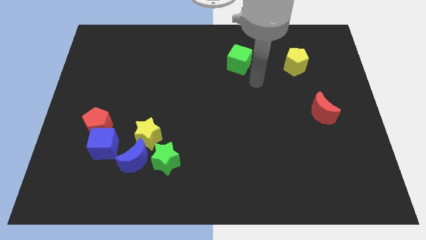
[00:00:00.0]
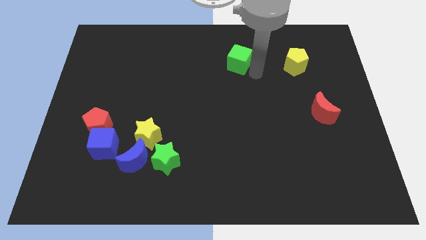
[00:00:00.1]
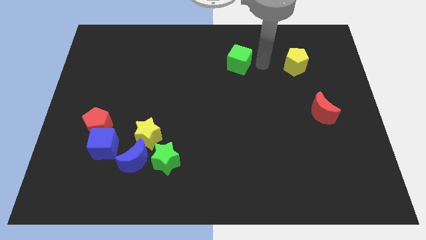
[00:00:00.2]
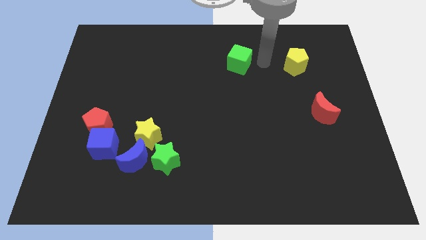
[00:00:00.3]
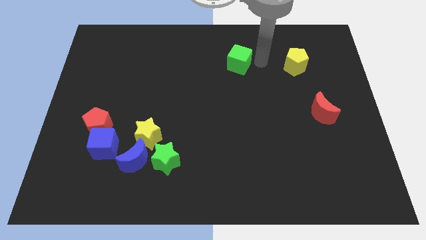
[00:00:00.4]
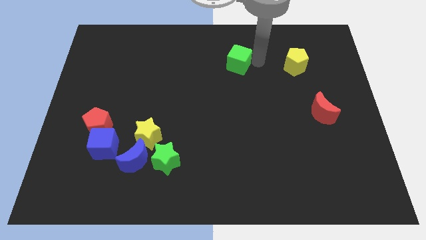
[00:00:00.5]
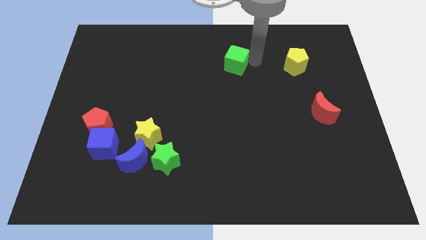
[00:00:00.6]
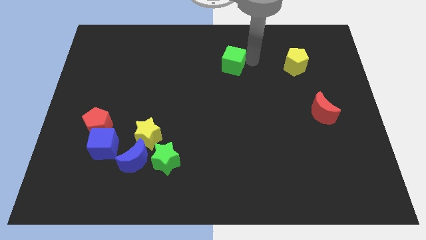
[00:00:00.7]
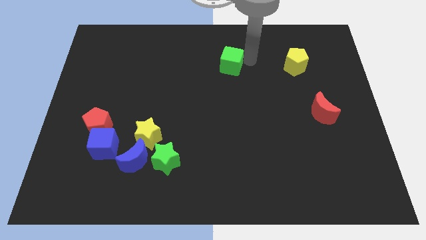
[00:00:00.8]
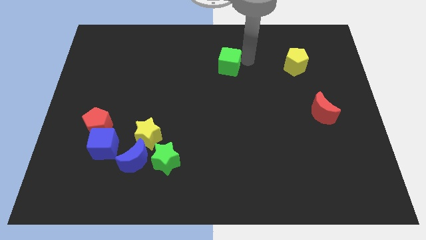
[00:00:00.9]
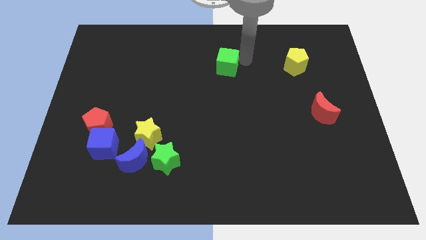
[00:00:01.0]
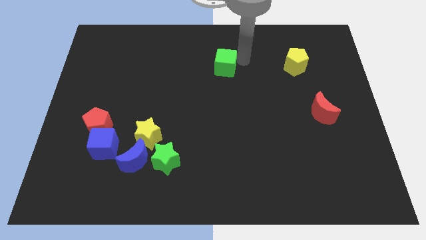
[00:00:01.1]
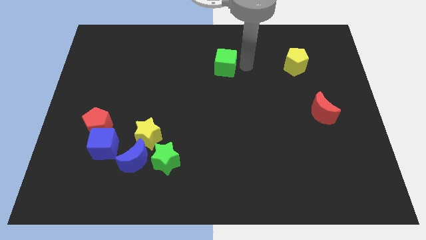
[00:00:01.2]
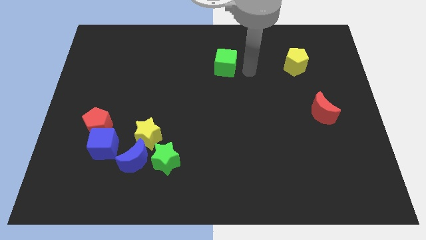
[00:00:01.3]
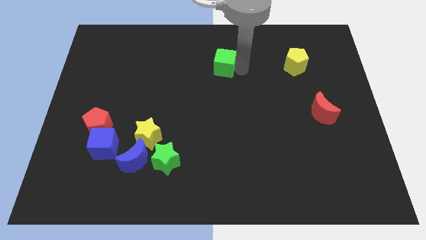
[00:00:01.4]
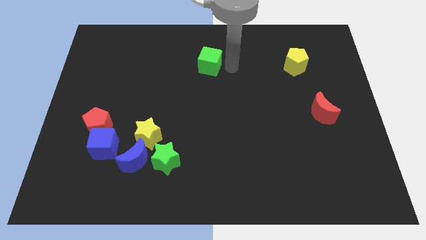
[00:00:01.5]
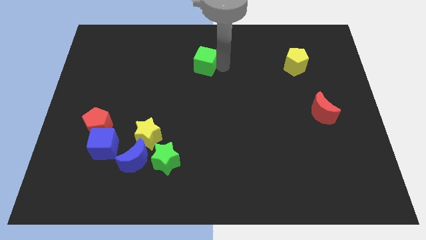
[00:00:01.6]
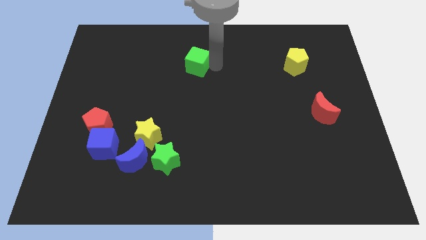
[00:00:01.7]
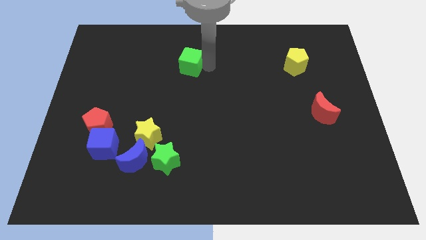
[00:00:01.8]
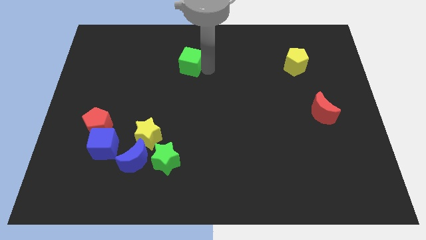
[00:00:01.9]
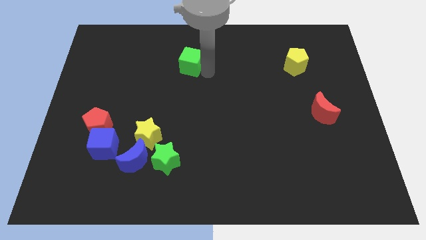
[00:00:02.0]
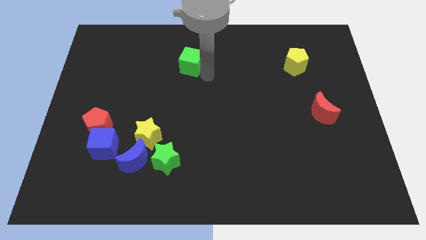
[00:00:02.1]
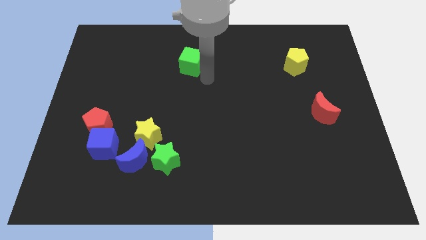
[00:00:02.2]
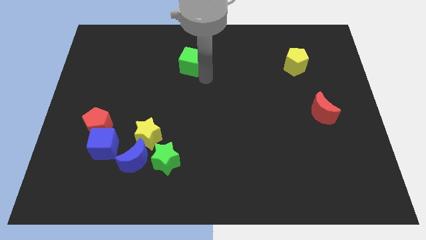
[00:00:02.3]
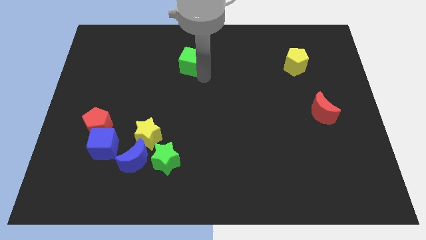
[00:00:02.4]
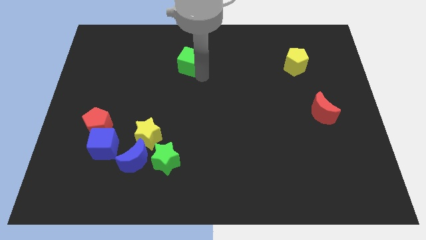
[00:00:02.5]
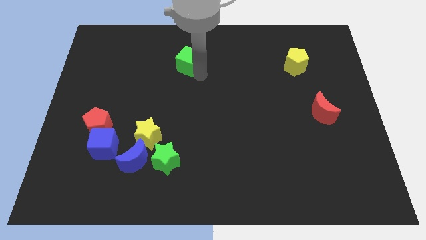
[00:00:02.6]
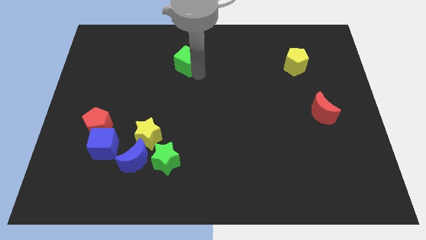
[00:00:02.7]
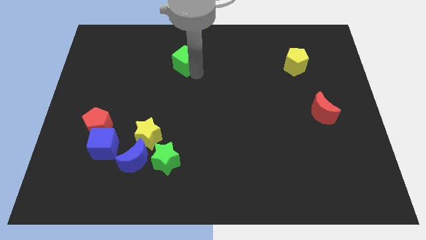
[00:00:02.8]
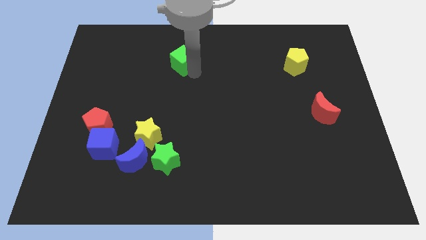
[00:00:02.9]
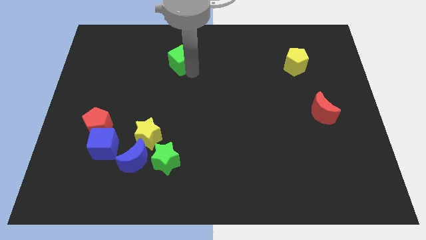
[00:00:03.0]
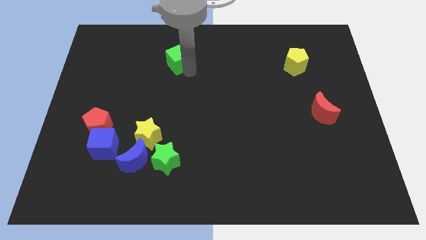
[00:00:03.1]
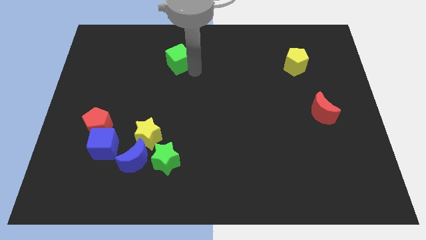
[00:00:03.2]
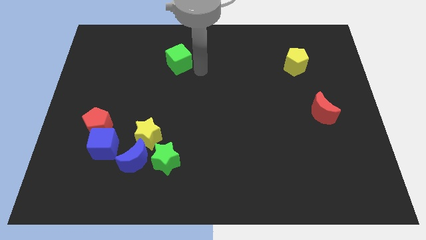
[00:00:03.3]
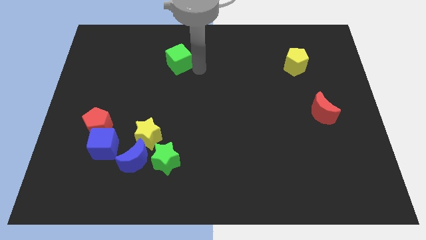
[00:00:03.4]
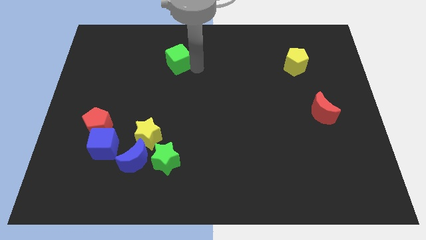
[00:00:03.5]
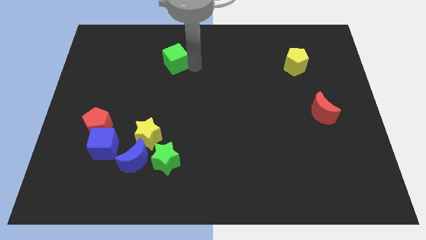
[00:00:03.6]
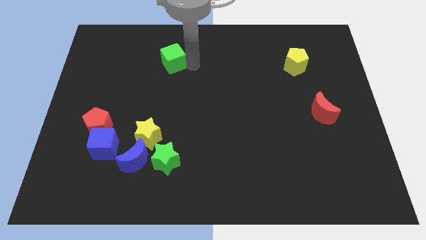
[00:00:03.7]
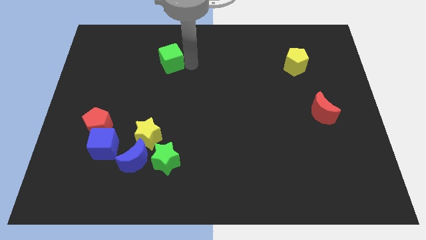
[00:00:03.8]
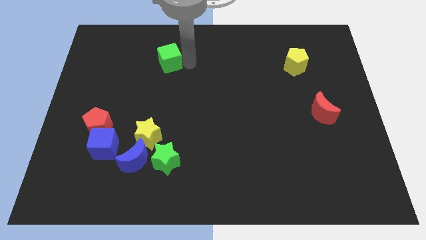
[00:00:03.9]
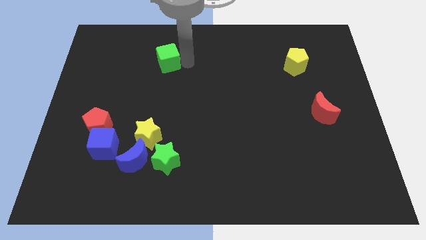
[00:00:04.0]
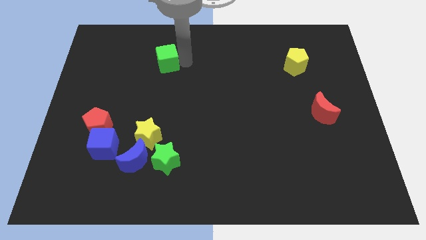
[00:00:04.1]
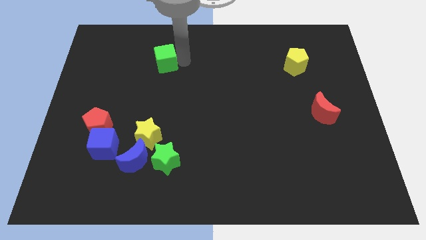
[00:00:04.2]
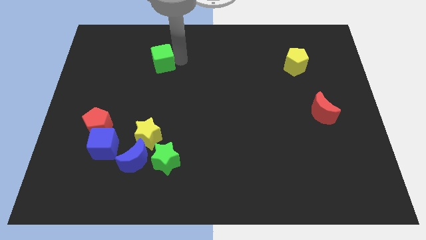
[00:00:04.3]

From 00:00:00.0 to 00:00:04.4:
move the green cube to the left

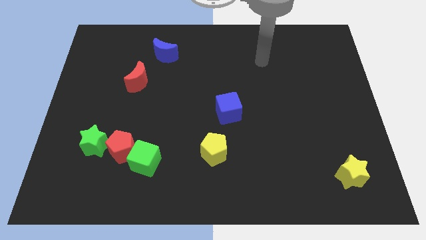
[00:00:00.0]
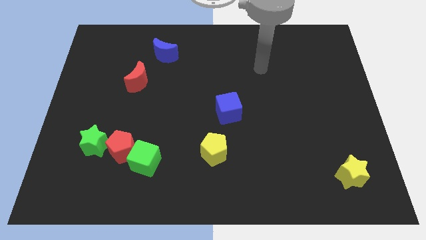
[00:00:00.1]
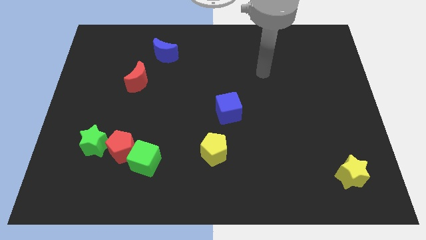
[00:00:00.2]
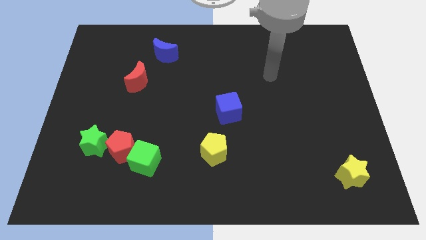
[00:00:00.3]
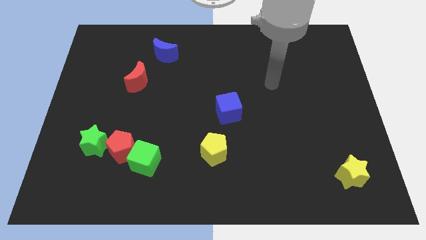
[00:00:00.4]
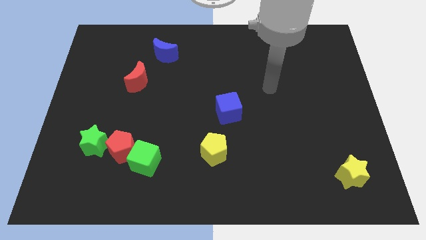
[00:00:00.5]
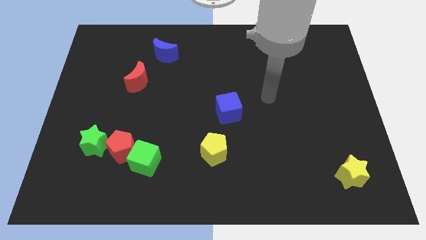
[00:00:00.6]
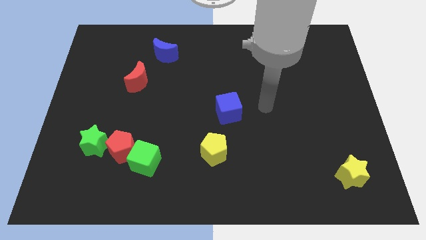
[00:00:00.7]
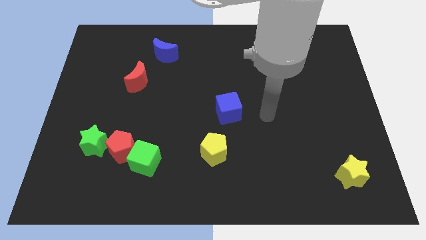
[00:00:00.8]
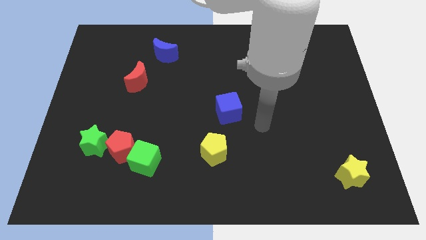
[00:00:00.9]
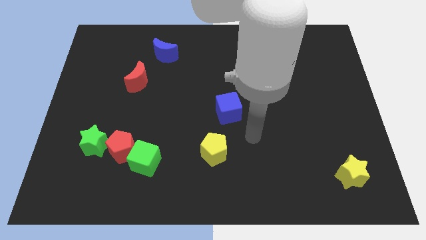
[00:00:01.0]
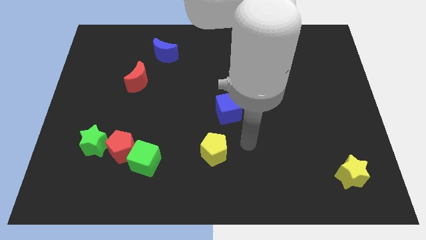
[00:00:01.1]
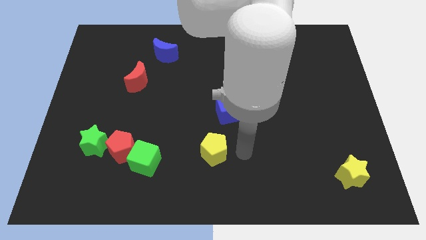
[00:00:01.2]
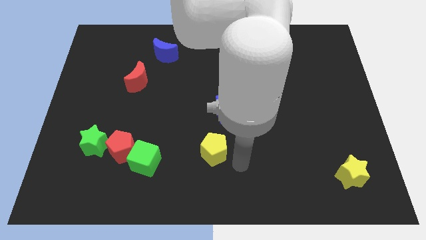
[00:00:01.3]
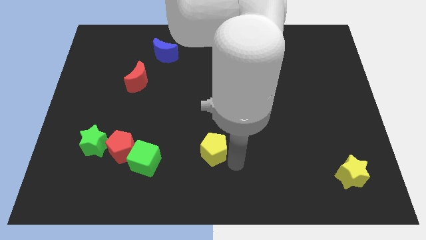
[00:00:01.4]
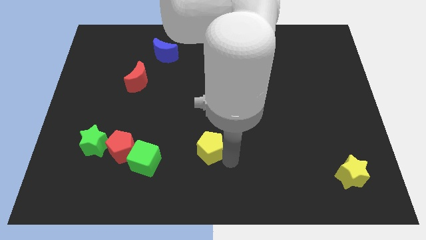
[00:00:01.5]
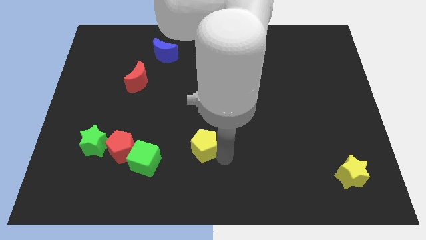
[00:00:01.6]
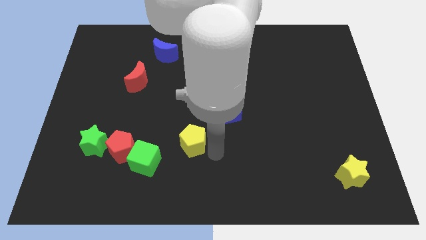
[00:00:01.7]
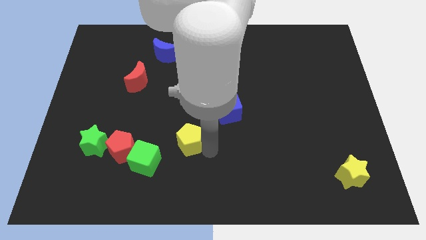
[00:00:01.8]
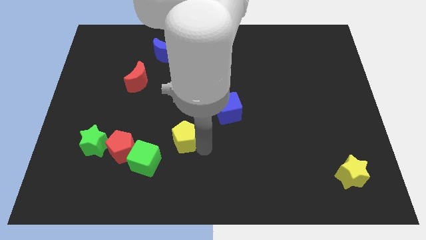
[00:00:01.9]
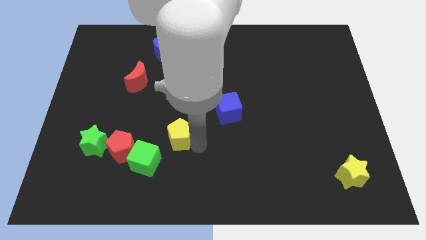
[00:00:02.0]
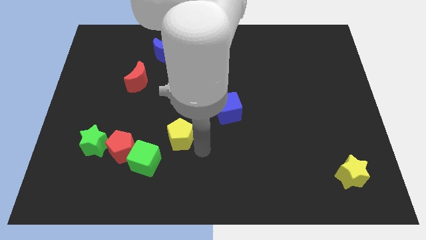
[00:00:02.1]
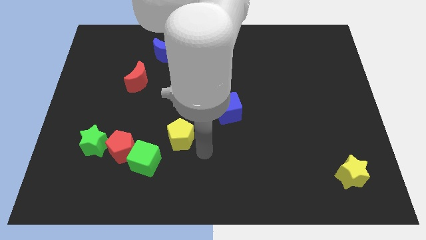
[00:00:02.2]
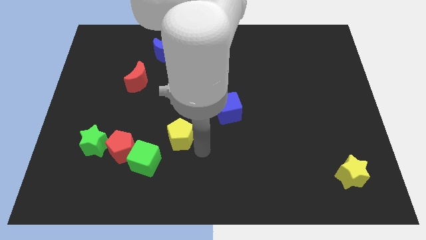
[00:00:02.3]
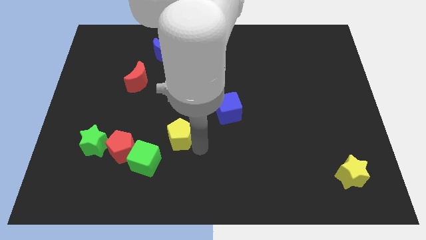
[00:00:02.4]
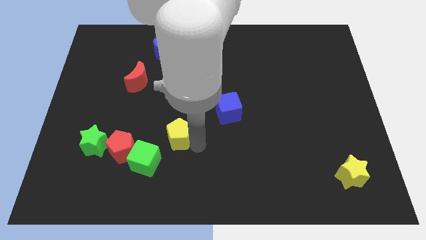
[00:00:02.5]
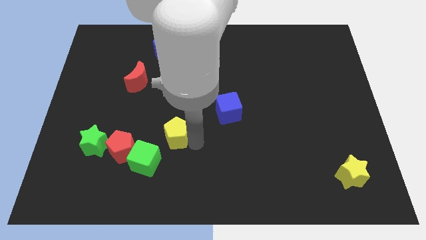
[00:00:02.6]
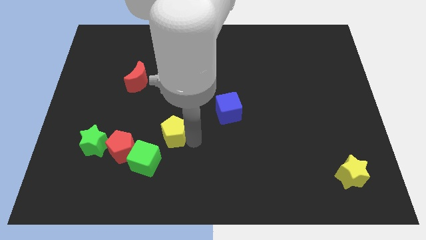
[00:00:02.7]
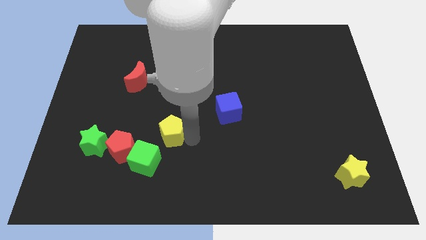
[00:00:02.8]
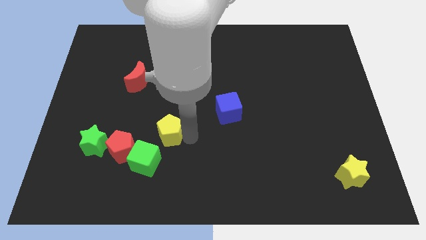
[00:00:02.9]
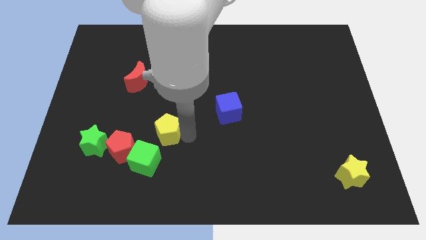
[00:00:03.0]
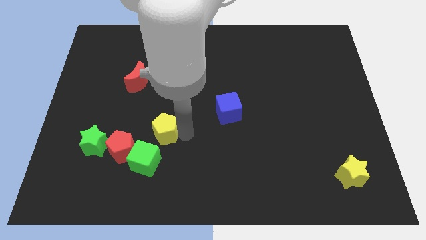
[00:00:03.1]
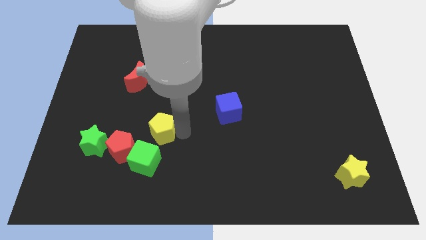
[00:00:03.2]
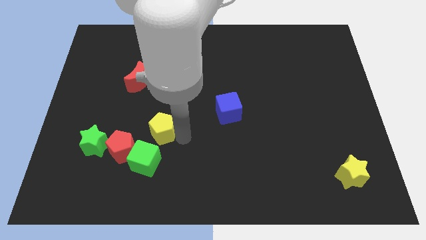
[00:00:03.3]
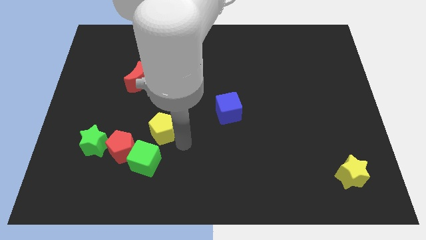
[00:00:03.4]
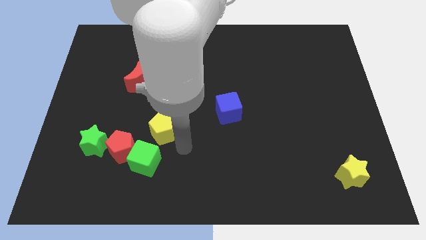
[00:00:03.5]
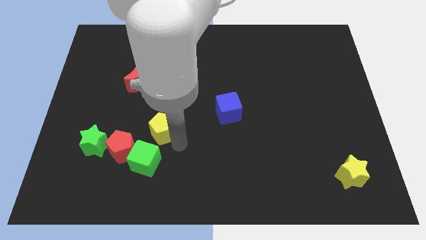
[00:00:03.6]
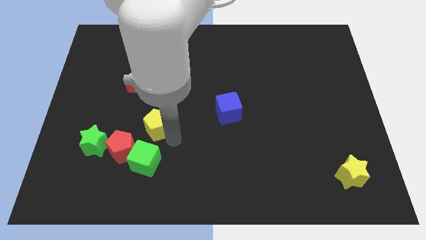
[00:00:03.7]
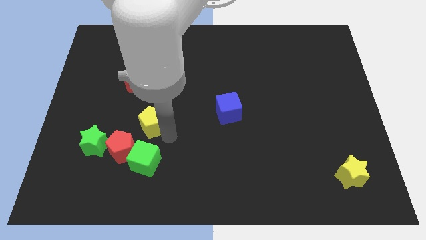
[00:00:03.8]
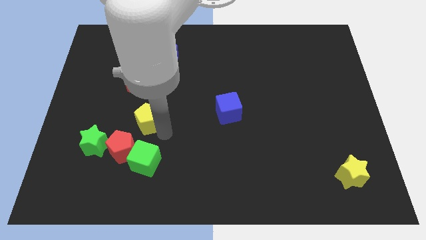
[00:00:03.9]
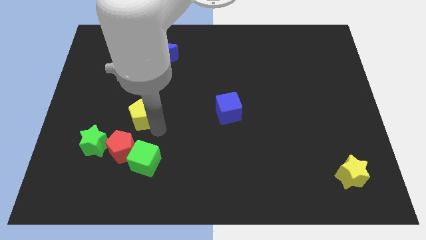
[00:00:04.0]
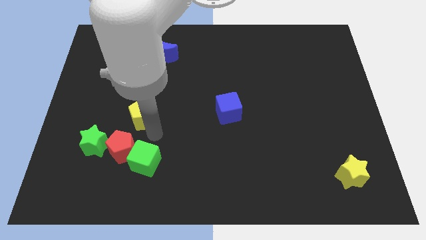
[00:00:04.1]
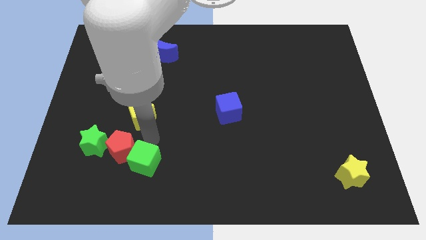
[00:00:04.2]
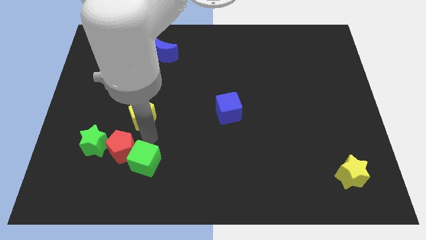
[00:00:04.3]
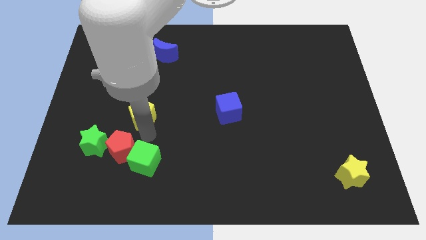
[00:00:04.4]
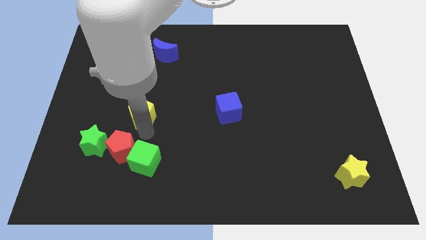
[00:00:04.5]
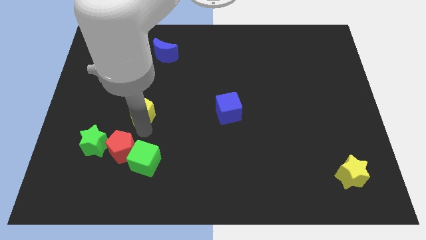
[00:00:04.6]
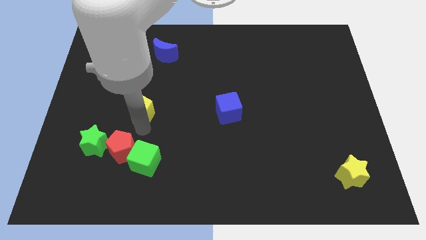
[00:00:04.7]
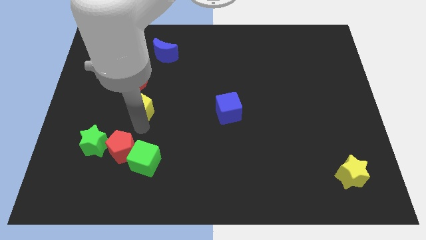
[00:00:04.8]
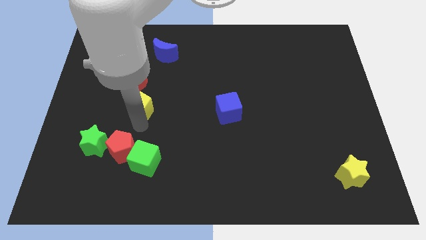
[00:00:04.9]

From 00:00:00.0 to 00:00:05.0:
slide the yellow pentagon diagonally upwards and to the left
